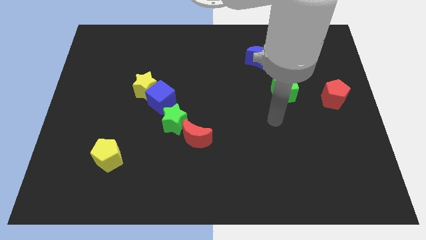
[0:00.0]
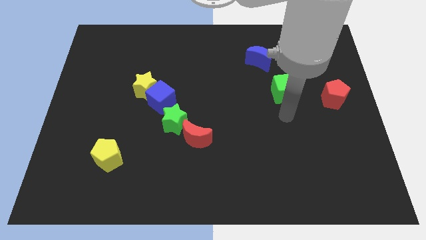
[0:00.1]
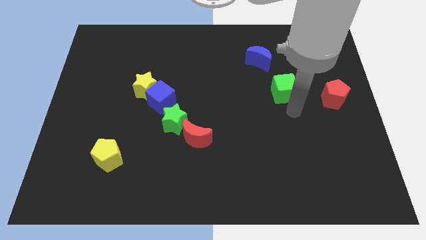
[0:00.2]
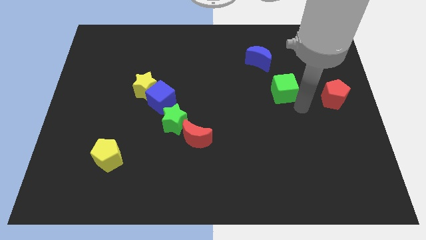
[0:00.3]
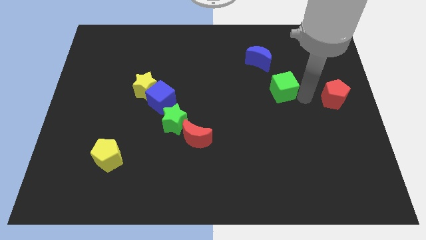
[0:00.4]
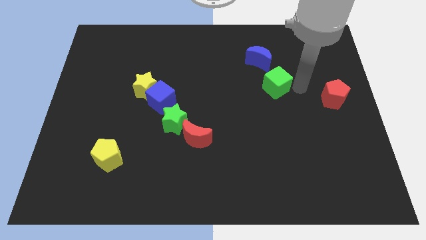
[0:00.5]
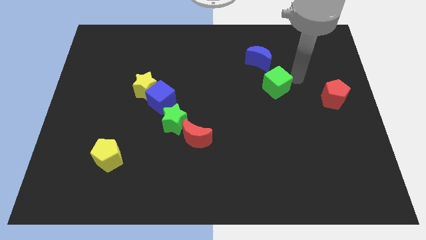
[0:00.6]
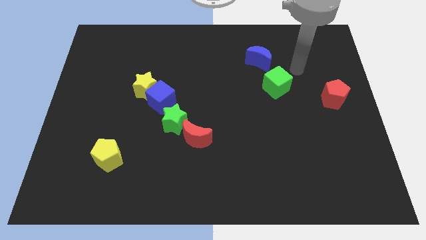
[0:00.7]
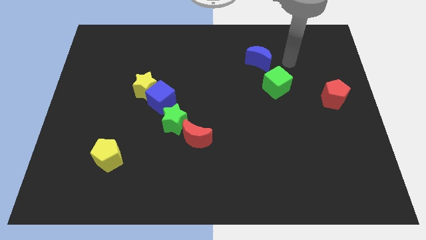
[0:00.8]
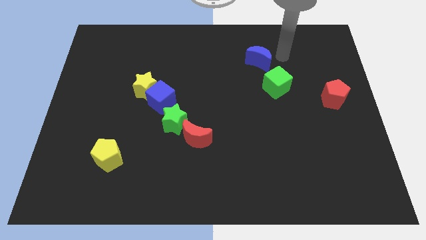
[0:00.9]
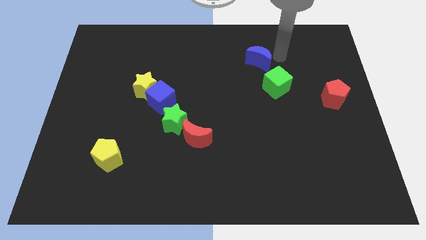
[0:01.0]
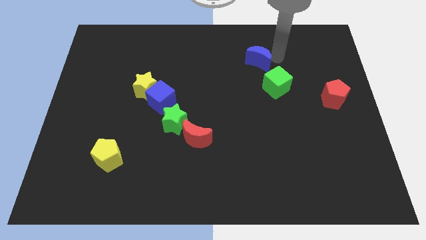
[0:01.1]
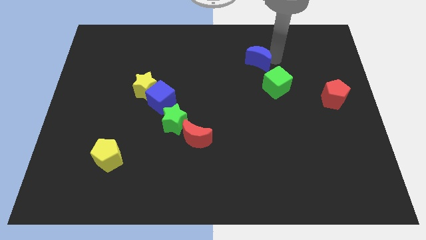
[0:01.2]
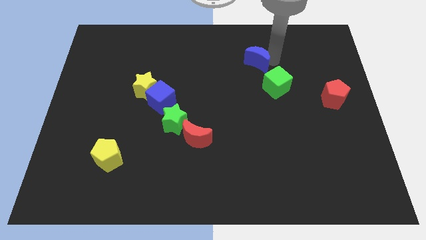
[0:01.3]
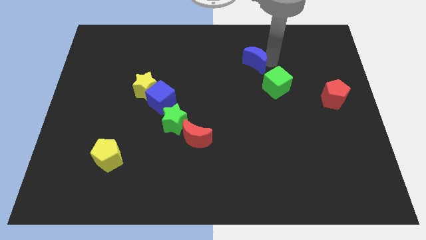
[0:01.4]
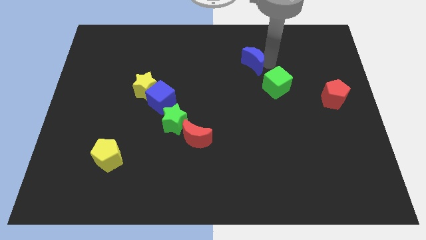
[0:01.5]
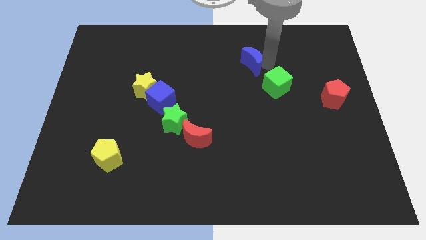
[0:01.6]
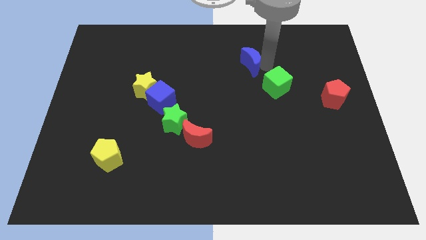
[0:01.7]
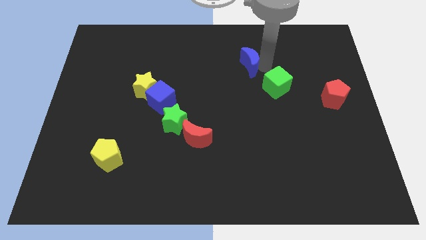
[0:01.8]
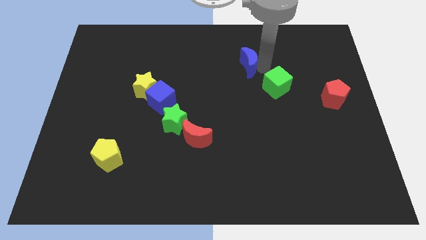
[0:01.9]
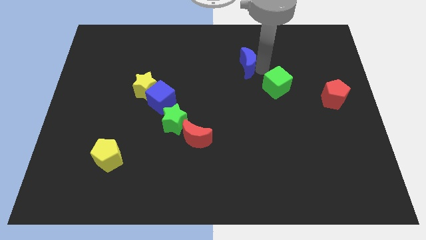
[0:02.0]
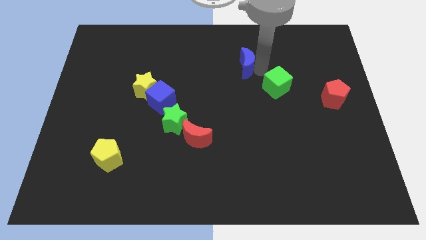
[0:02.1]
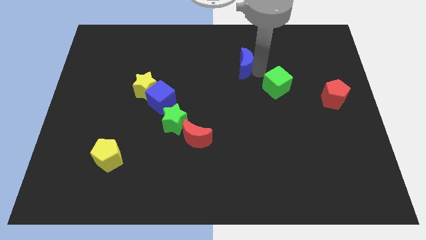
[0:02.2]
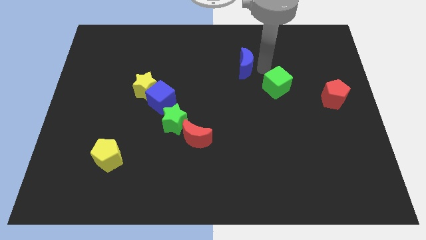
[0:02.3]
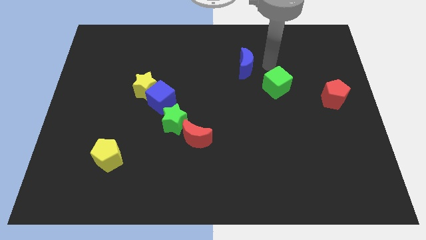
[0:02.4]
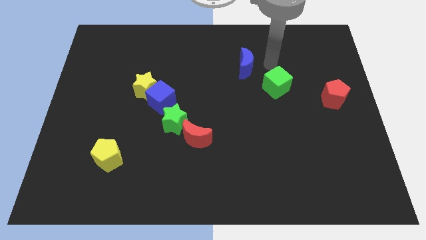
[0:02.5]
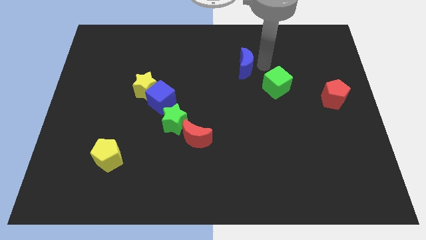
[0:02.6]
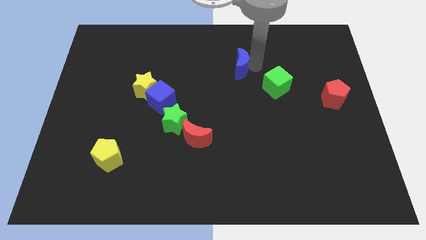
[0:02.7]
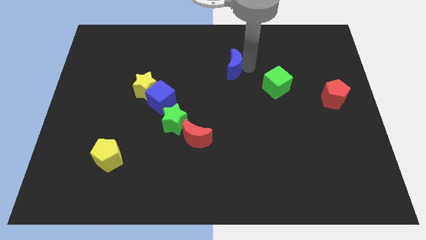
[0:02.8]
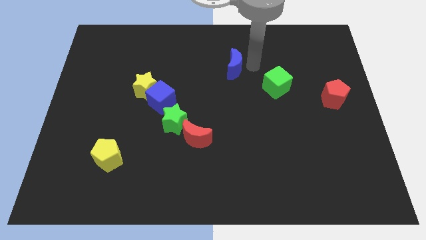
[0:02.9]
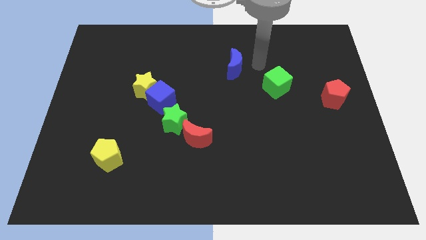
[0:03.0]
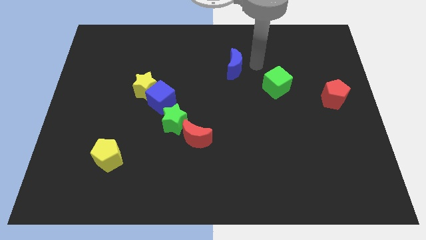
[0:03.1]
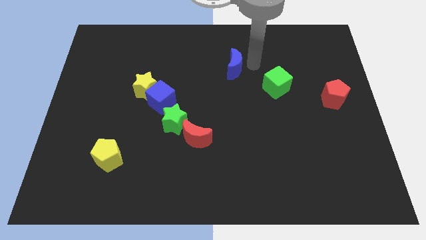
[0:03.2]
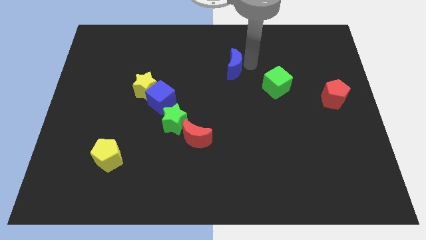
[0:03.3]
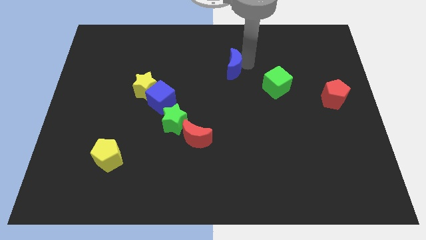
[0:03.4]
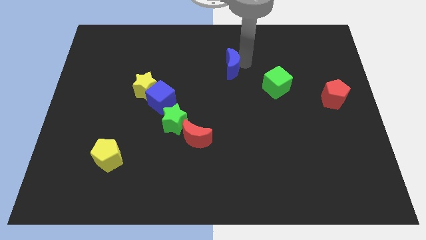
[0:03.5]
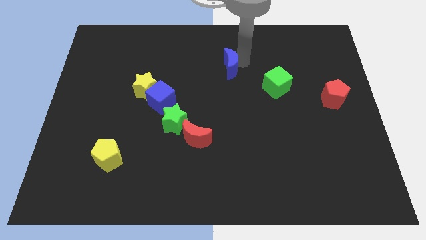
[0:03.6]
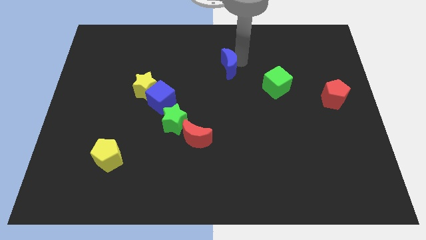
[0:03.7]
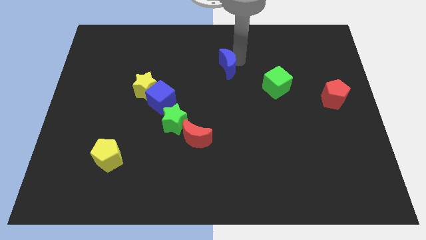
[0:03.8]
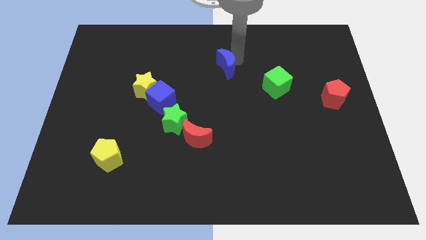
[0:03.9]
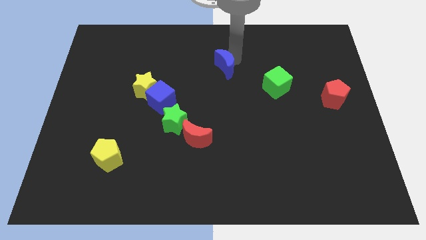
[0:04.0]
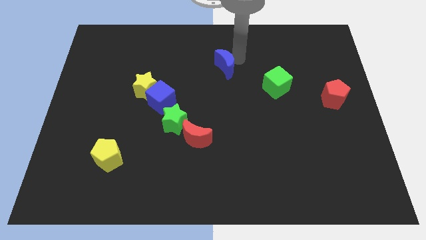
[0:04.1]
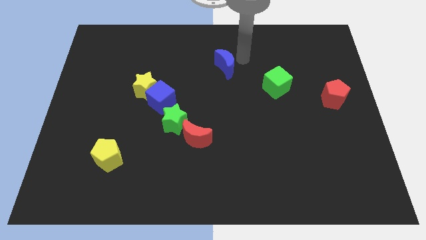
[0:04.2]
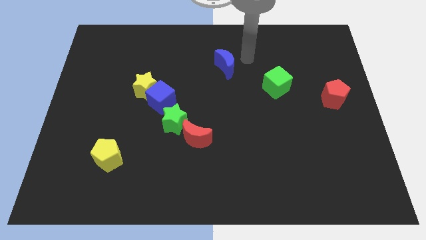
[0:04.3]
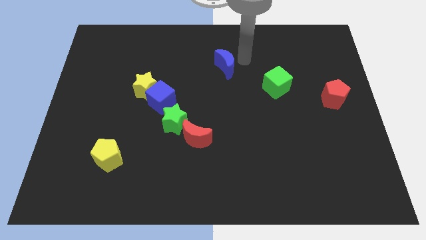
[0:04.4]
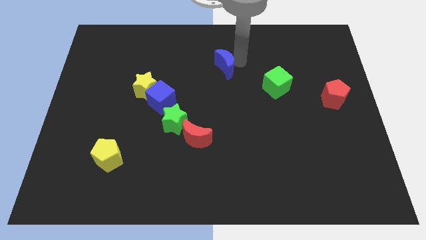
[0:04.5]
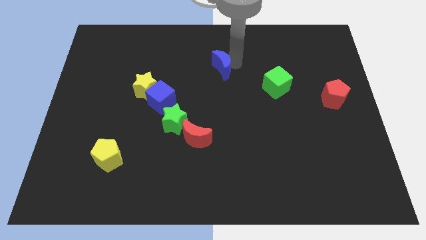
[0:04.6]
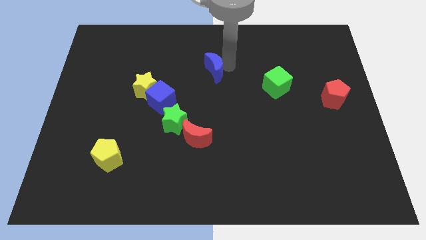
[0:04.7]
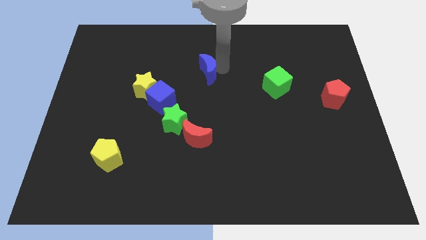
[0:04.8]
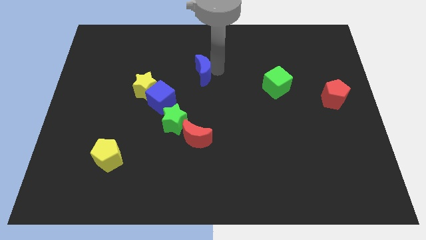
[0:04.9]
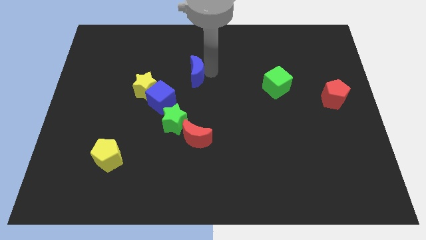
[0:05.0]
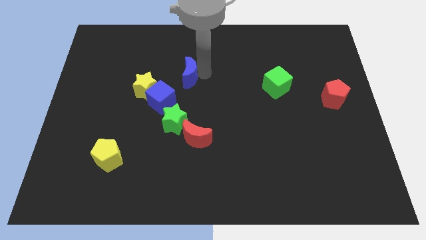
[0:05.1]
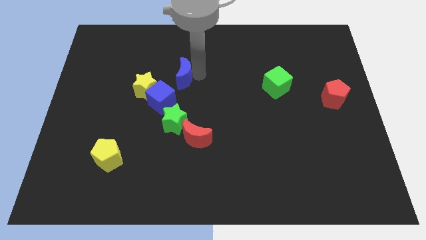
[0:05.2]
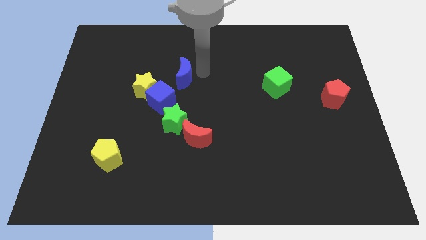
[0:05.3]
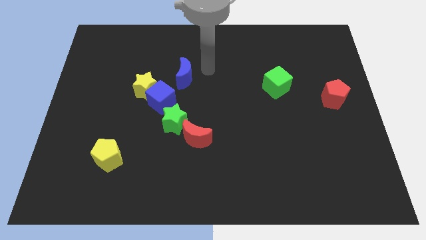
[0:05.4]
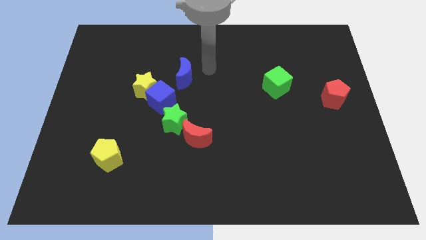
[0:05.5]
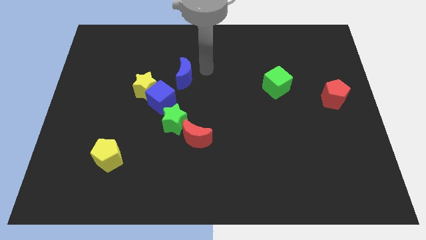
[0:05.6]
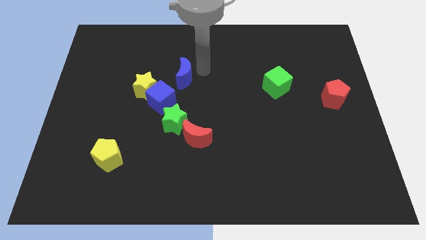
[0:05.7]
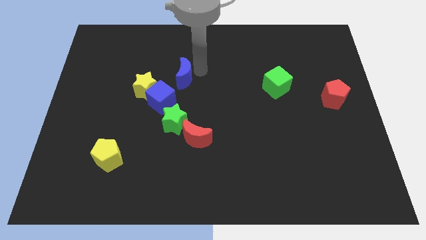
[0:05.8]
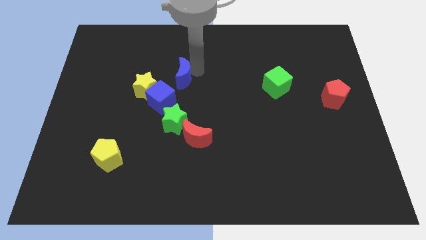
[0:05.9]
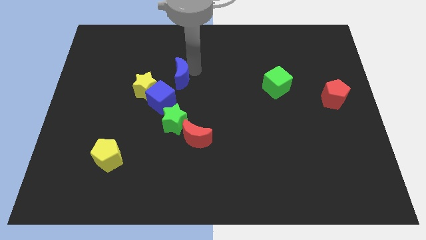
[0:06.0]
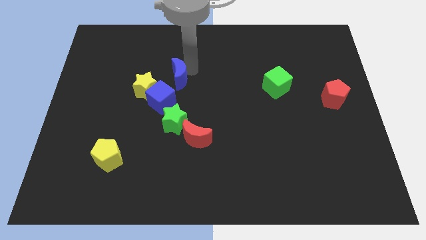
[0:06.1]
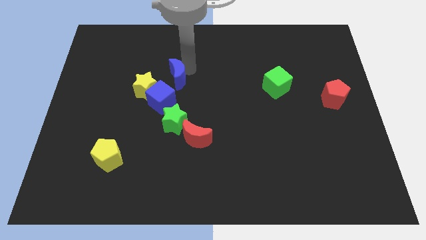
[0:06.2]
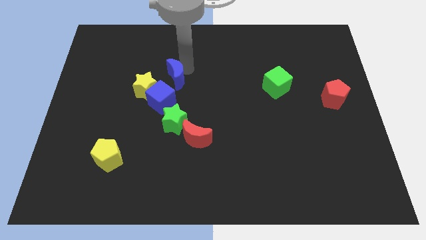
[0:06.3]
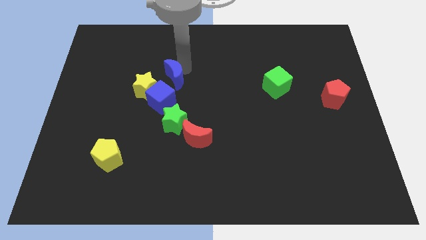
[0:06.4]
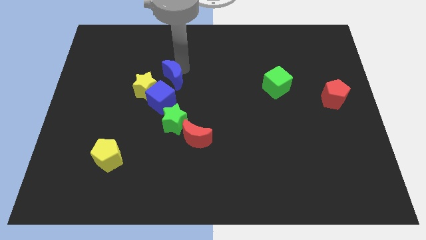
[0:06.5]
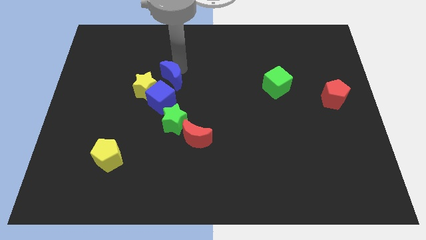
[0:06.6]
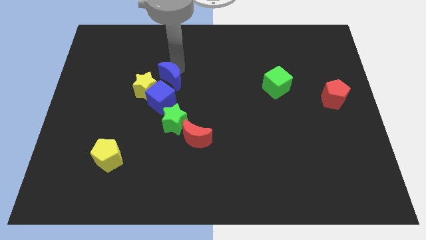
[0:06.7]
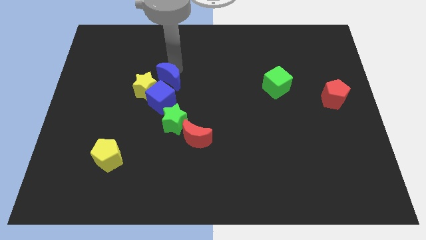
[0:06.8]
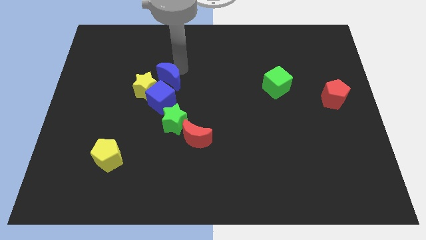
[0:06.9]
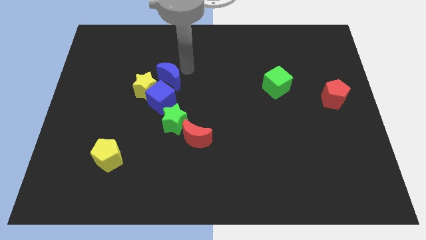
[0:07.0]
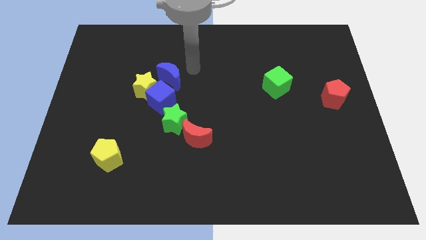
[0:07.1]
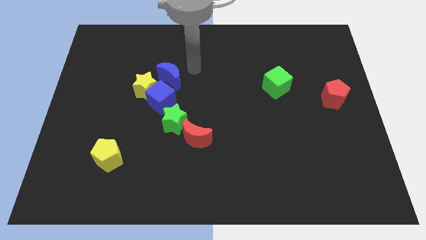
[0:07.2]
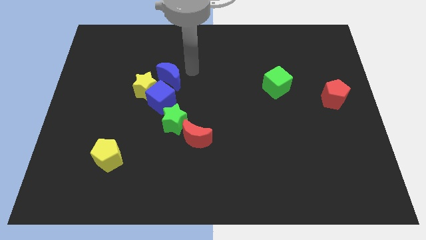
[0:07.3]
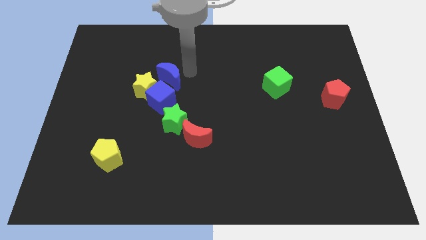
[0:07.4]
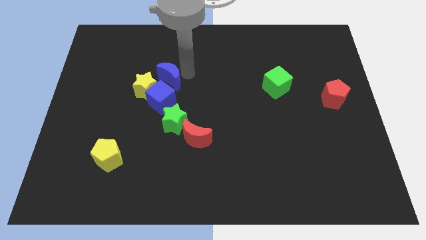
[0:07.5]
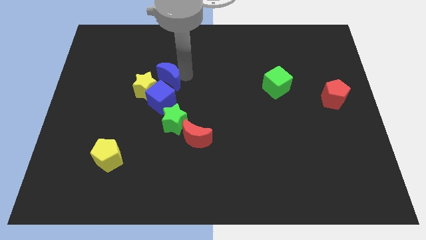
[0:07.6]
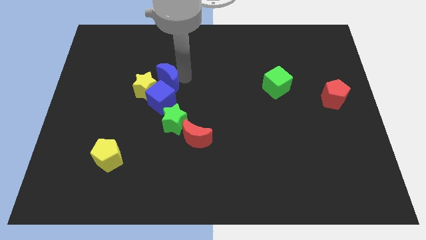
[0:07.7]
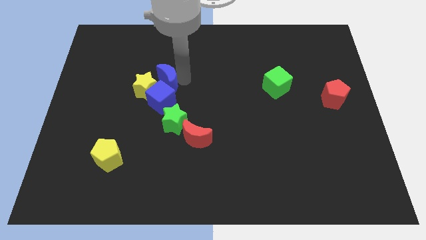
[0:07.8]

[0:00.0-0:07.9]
slide the blue moon towards the yellow star
